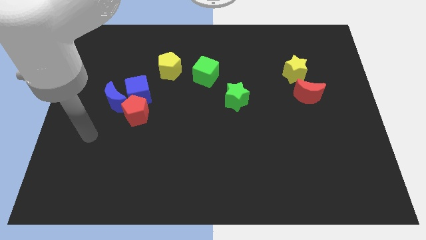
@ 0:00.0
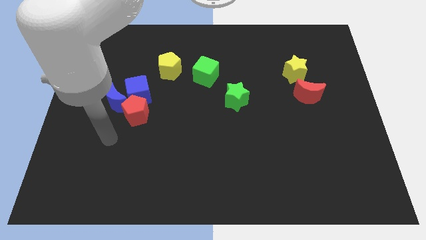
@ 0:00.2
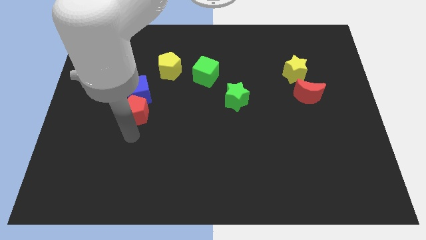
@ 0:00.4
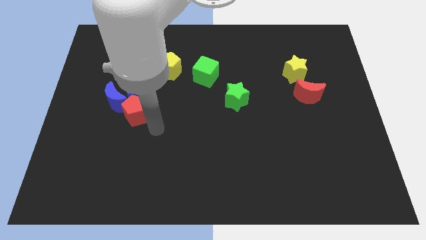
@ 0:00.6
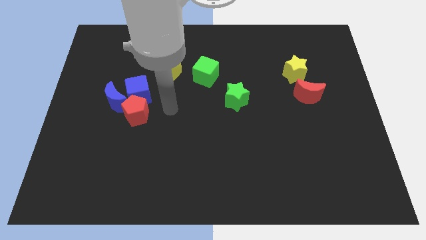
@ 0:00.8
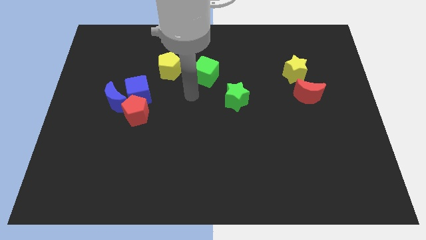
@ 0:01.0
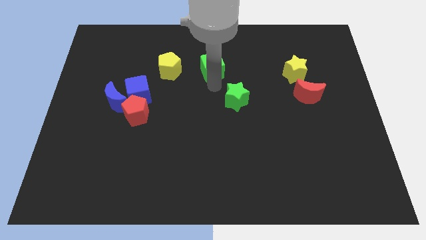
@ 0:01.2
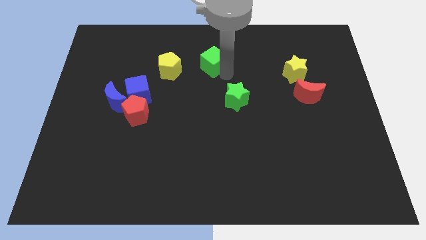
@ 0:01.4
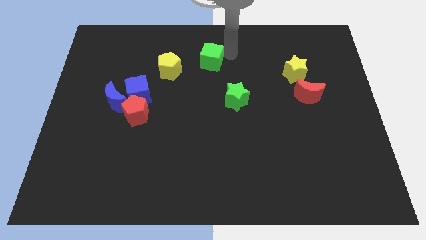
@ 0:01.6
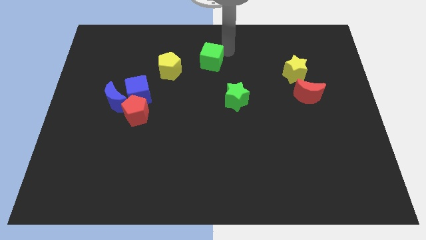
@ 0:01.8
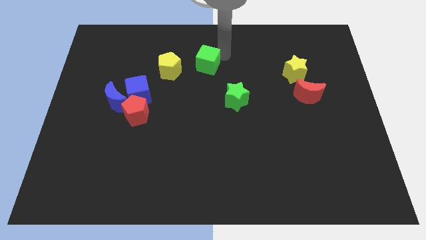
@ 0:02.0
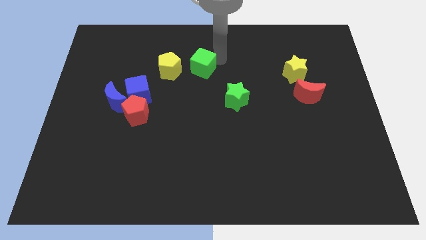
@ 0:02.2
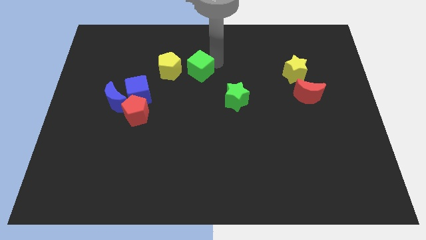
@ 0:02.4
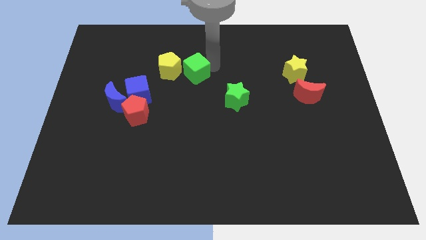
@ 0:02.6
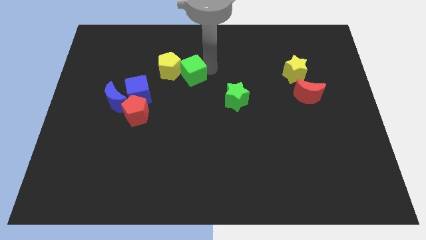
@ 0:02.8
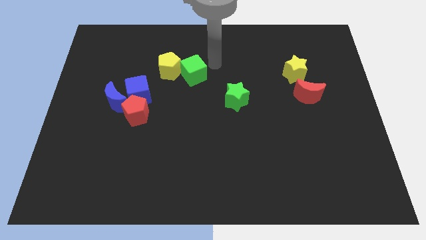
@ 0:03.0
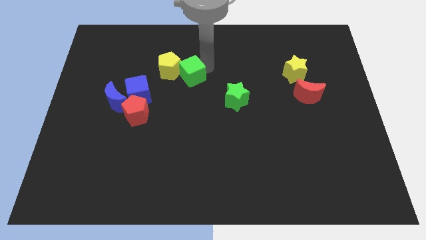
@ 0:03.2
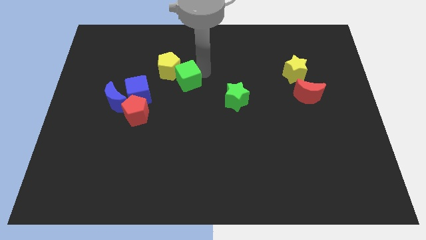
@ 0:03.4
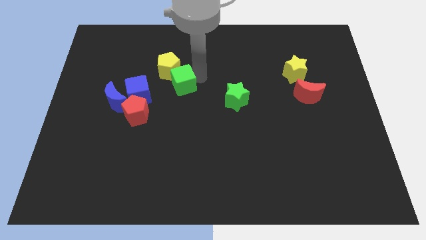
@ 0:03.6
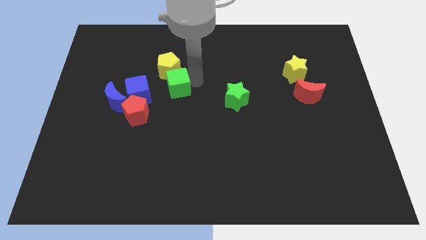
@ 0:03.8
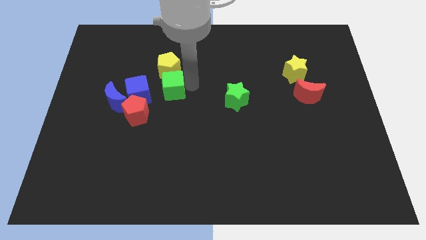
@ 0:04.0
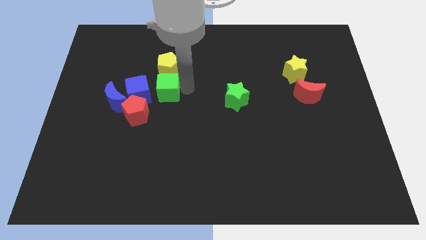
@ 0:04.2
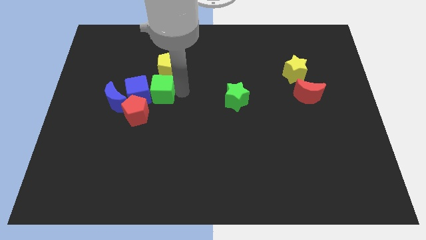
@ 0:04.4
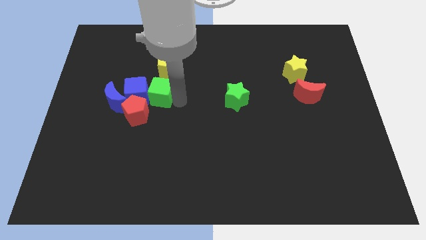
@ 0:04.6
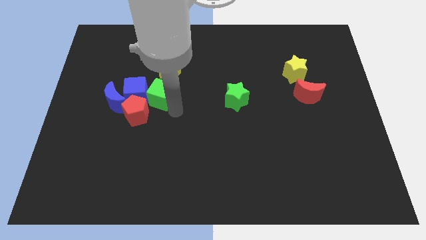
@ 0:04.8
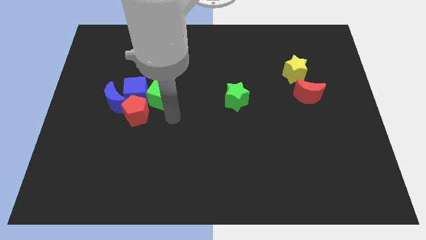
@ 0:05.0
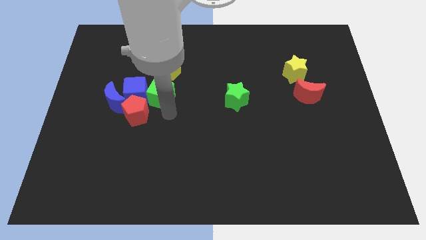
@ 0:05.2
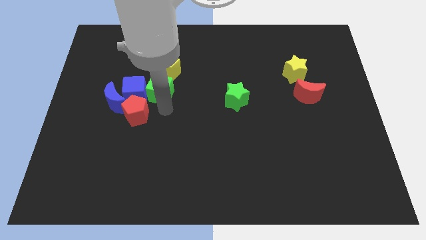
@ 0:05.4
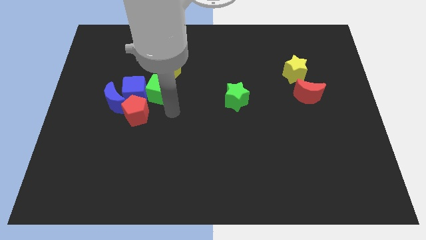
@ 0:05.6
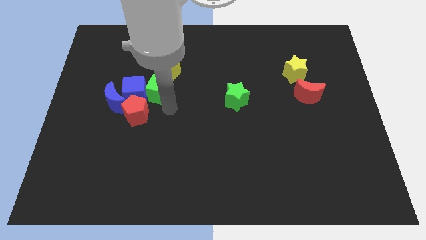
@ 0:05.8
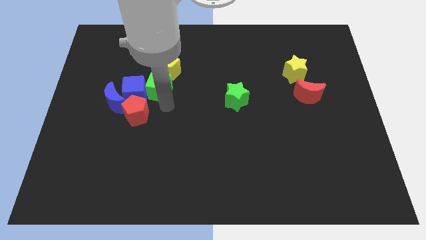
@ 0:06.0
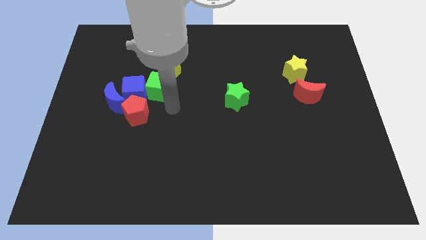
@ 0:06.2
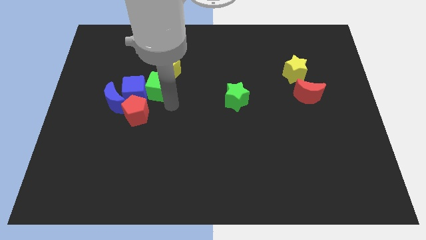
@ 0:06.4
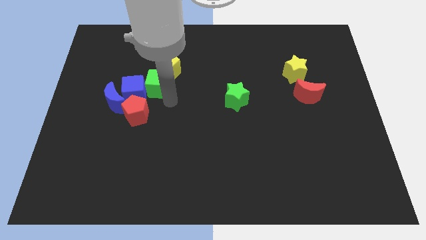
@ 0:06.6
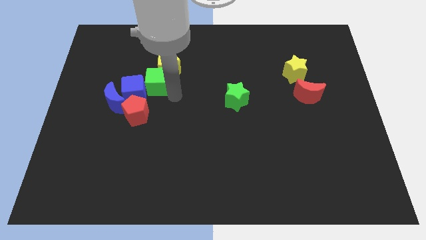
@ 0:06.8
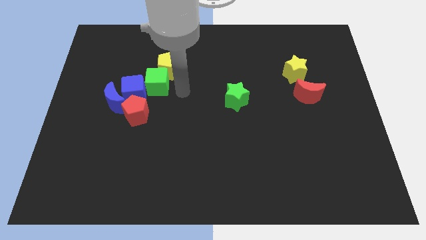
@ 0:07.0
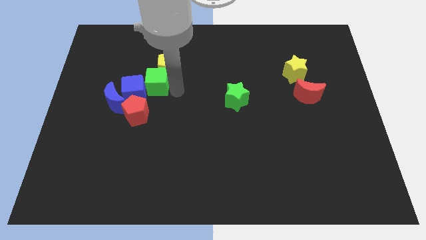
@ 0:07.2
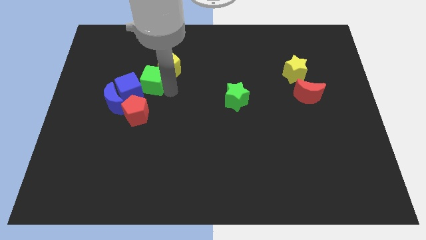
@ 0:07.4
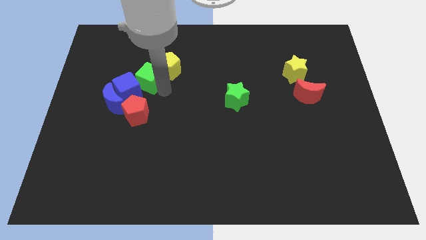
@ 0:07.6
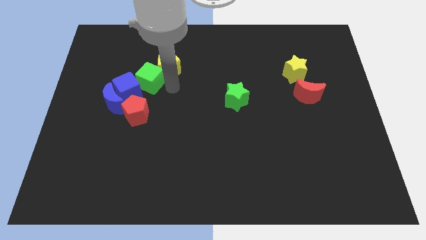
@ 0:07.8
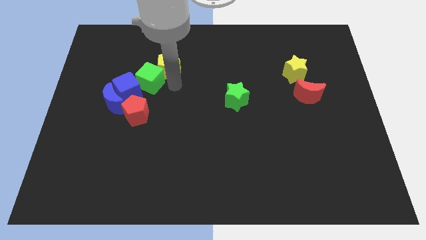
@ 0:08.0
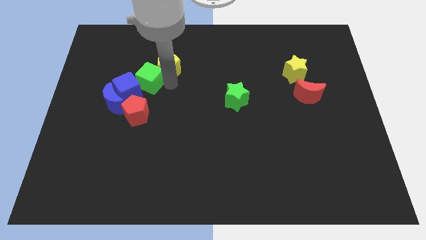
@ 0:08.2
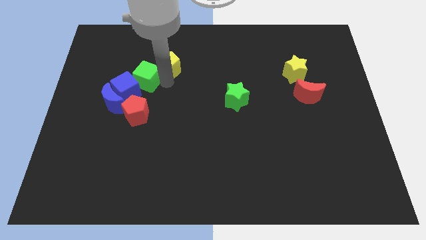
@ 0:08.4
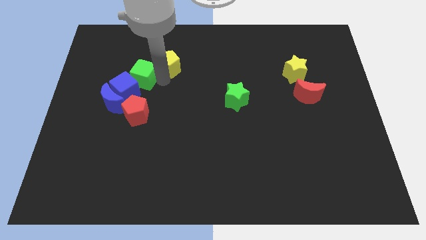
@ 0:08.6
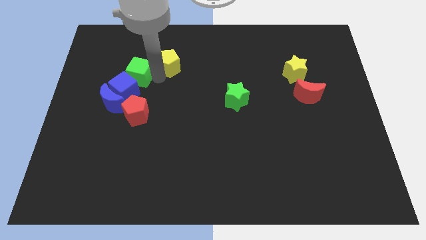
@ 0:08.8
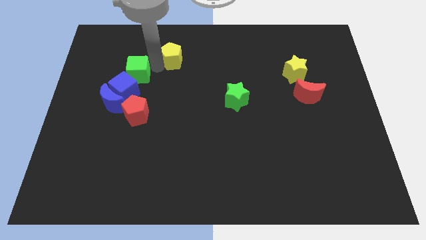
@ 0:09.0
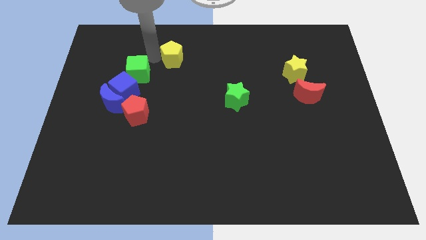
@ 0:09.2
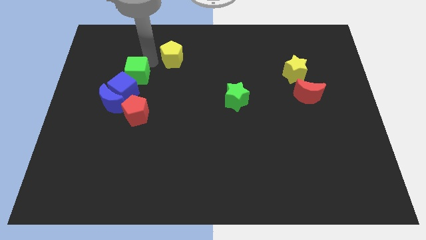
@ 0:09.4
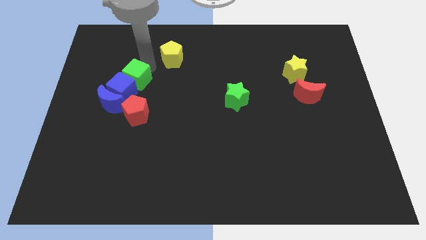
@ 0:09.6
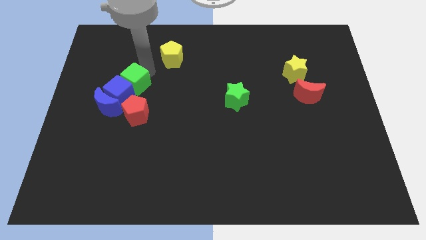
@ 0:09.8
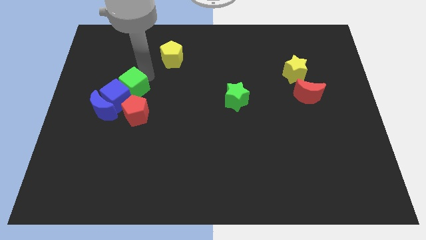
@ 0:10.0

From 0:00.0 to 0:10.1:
move the green cube to the top left side of the red pentagon

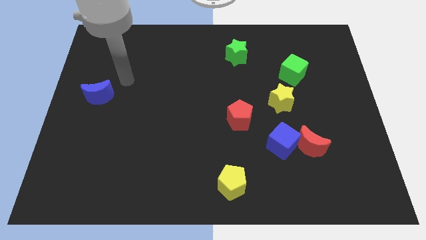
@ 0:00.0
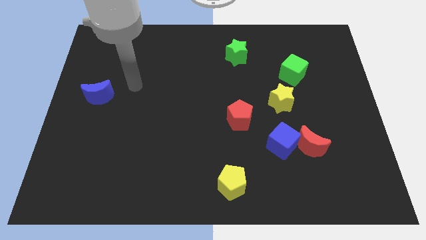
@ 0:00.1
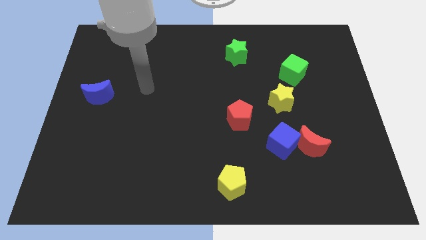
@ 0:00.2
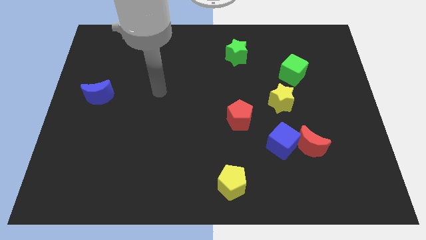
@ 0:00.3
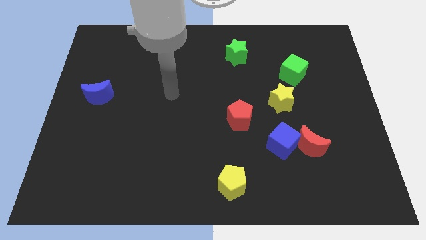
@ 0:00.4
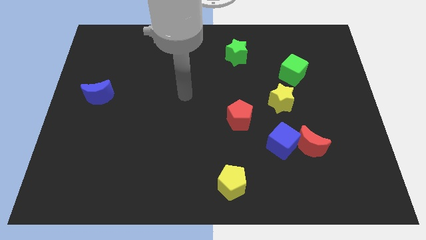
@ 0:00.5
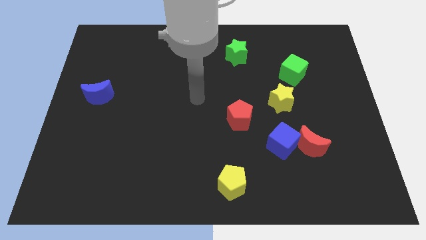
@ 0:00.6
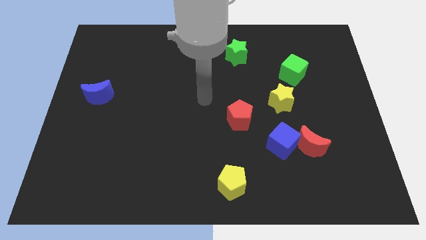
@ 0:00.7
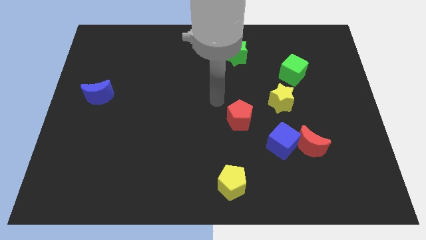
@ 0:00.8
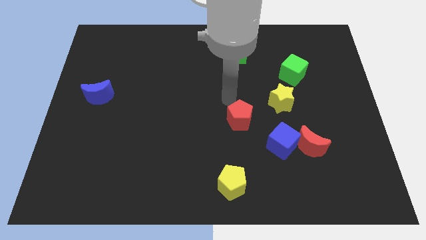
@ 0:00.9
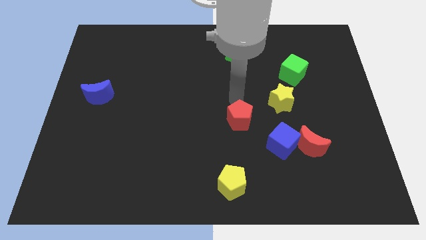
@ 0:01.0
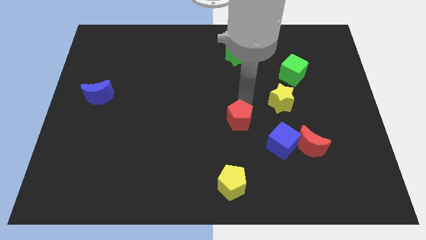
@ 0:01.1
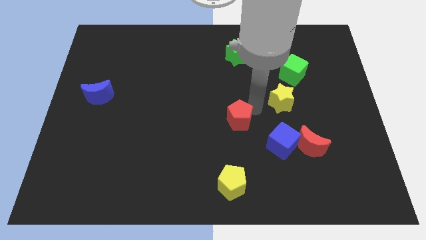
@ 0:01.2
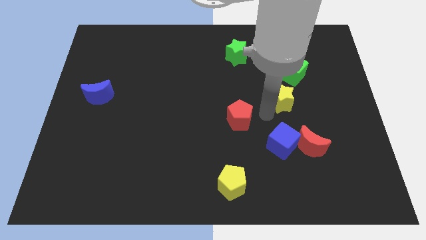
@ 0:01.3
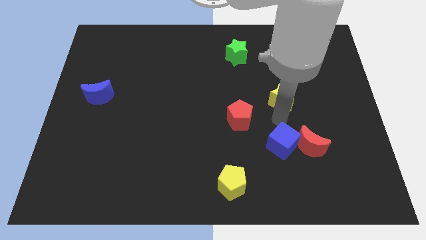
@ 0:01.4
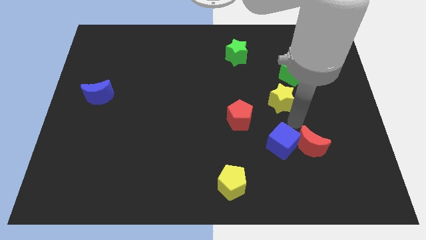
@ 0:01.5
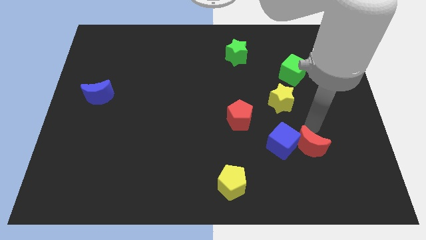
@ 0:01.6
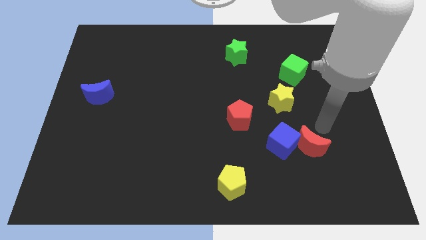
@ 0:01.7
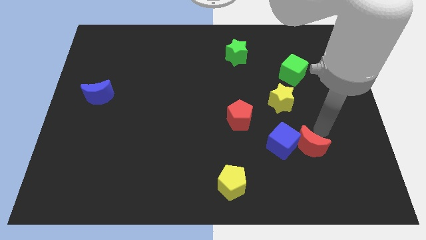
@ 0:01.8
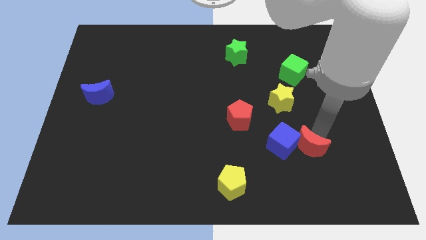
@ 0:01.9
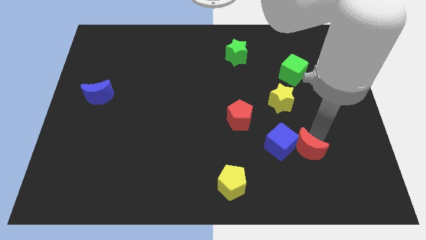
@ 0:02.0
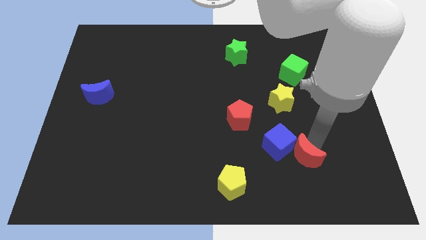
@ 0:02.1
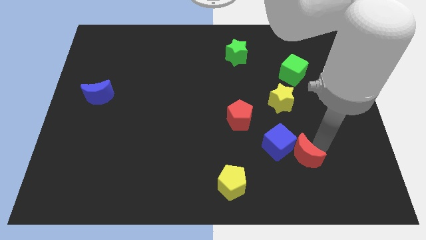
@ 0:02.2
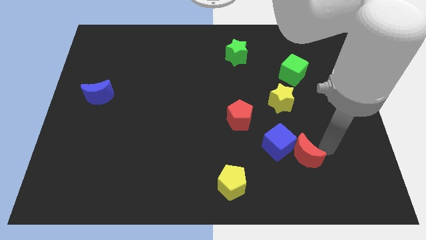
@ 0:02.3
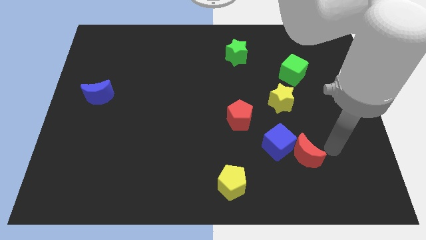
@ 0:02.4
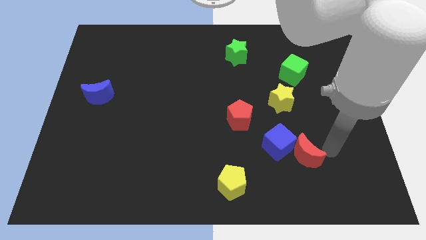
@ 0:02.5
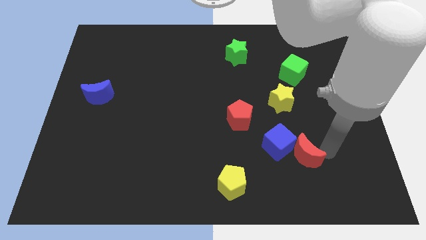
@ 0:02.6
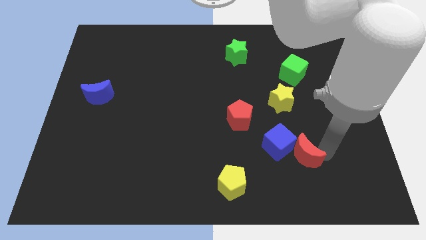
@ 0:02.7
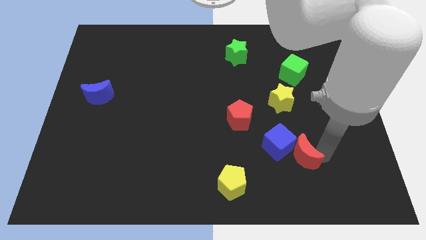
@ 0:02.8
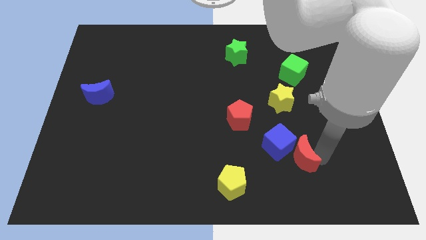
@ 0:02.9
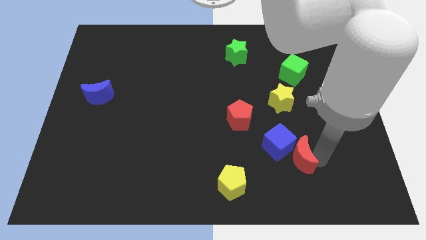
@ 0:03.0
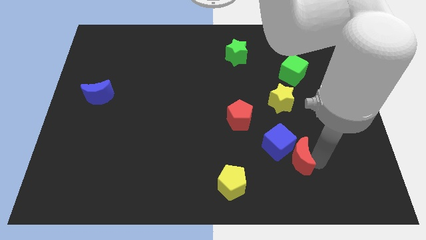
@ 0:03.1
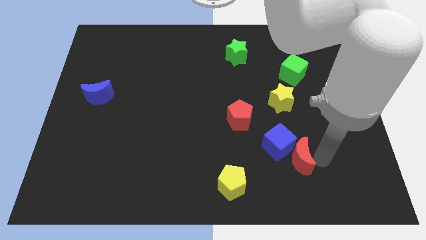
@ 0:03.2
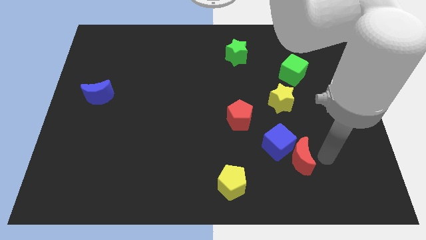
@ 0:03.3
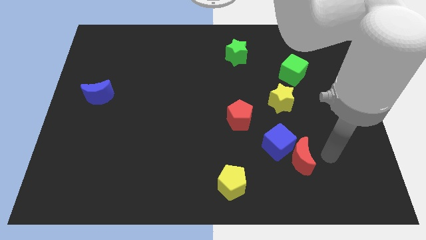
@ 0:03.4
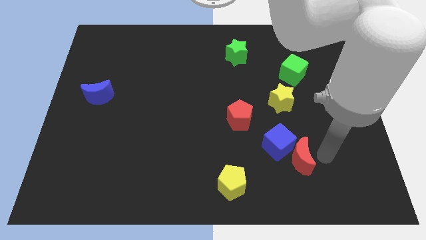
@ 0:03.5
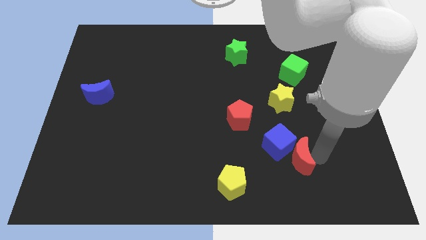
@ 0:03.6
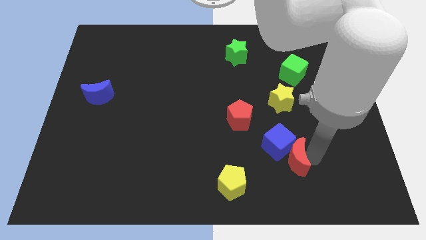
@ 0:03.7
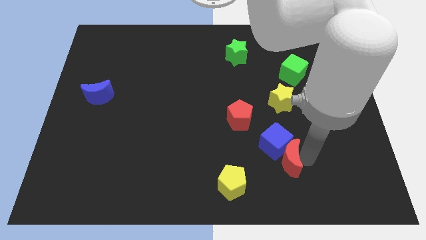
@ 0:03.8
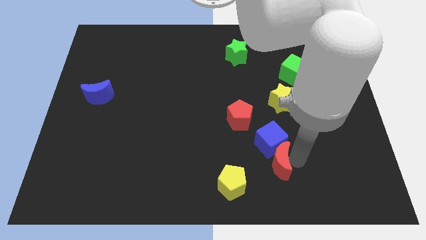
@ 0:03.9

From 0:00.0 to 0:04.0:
slide the red moon to the bottom left of the blue cube
